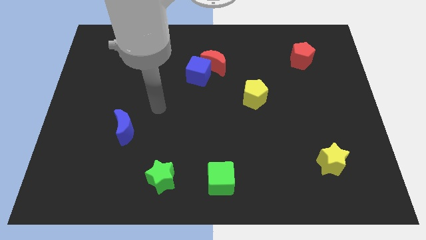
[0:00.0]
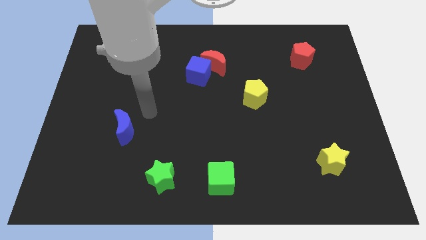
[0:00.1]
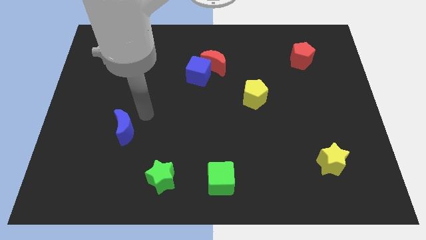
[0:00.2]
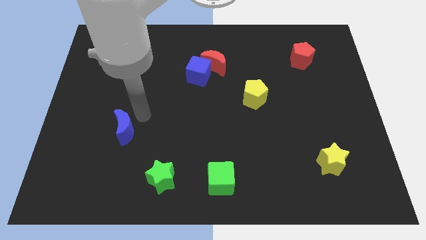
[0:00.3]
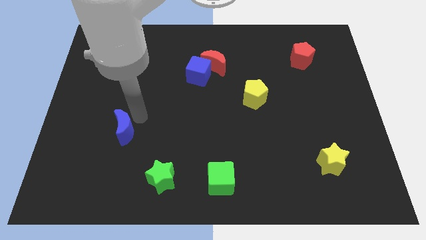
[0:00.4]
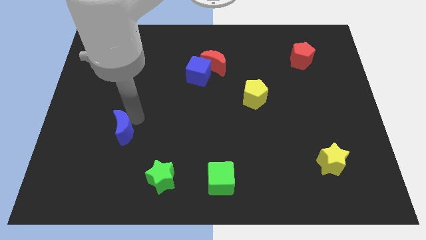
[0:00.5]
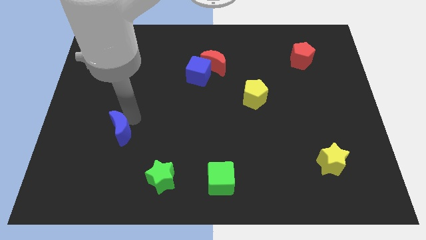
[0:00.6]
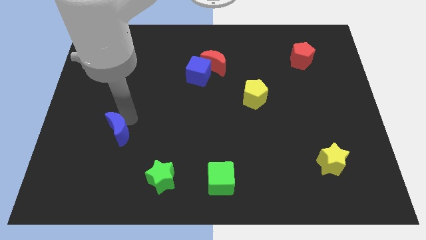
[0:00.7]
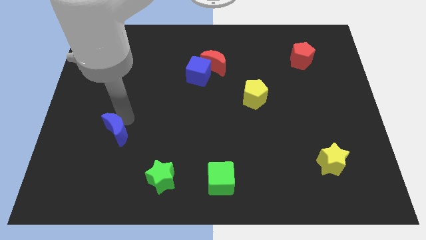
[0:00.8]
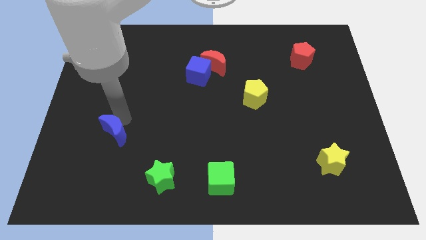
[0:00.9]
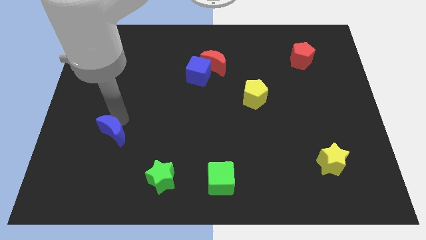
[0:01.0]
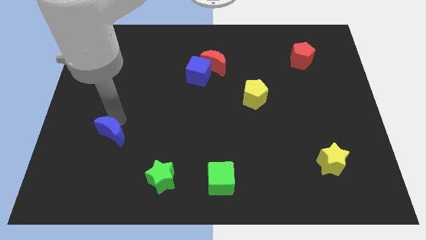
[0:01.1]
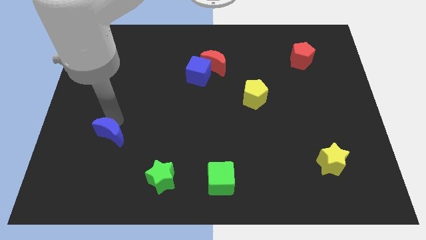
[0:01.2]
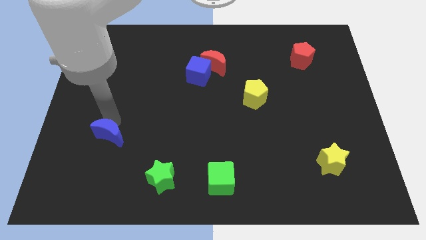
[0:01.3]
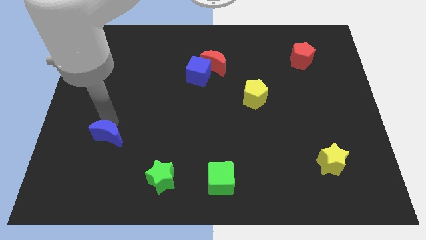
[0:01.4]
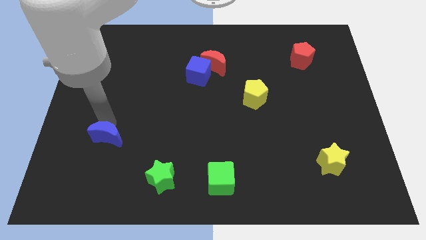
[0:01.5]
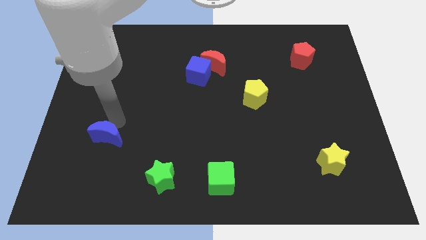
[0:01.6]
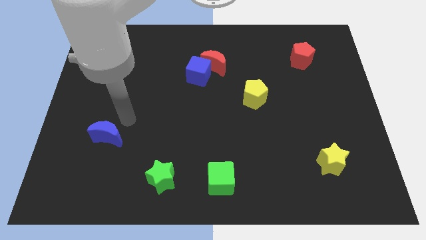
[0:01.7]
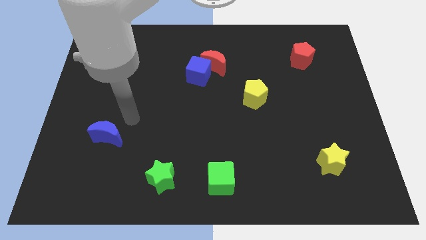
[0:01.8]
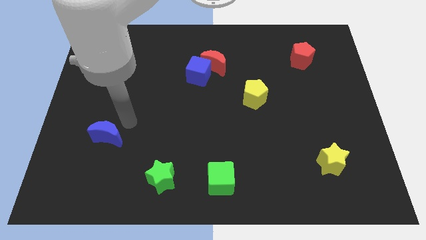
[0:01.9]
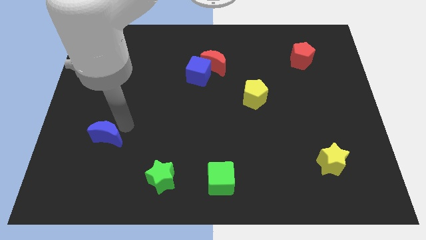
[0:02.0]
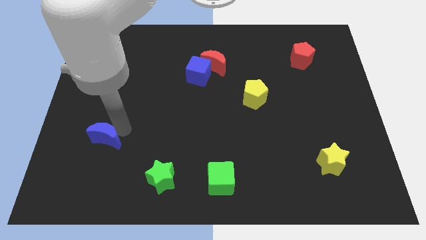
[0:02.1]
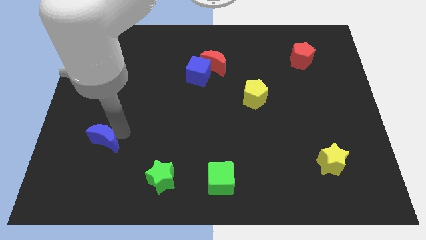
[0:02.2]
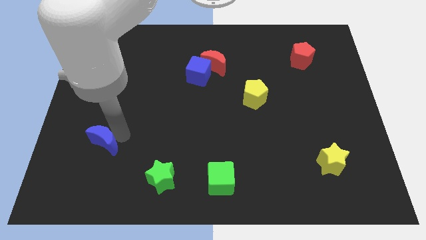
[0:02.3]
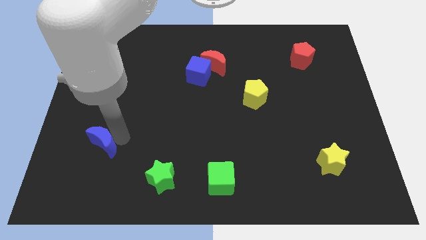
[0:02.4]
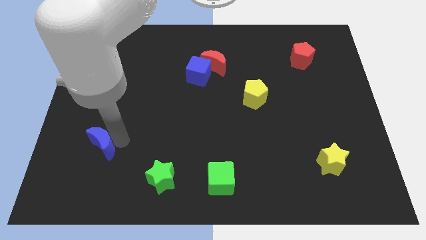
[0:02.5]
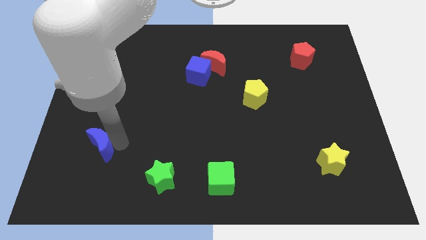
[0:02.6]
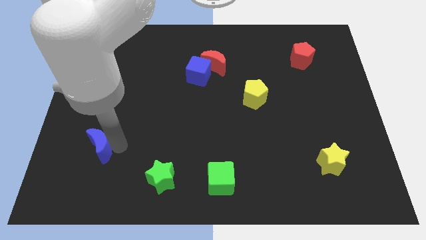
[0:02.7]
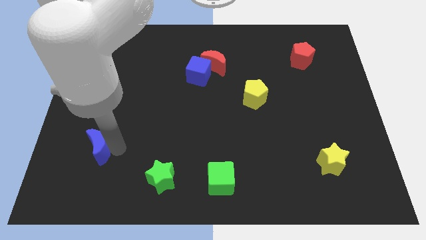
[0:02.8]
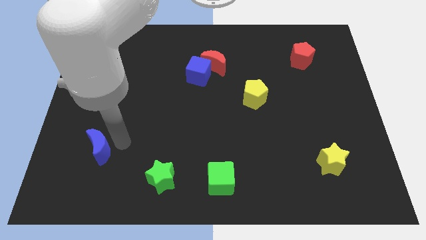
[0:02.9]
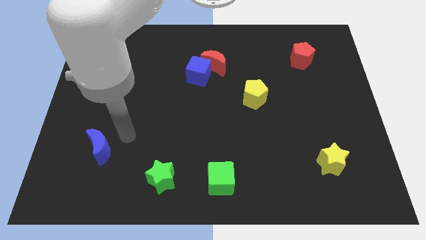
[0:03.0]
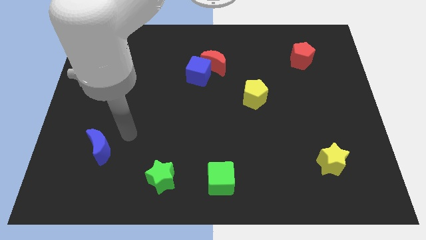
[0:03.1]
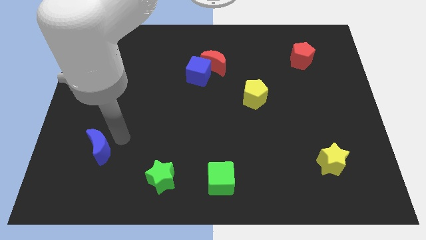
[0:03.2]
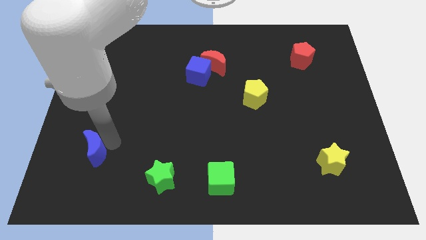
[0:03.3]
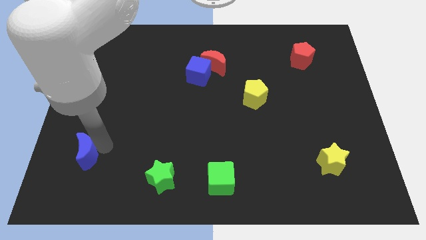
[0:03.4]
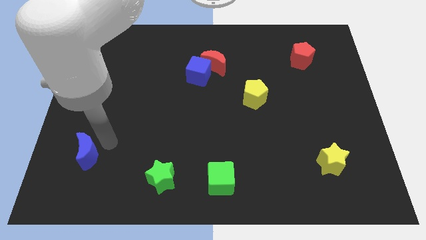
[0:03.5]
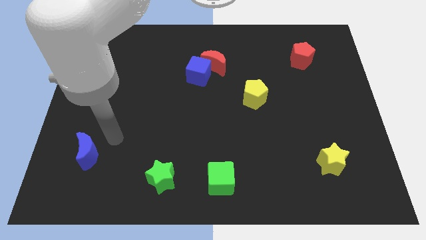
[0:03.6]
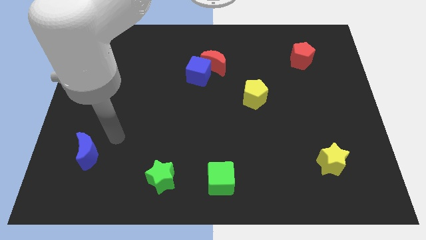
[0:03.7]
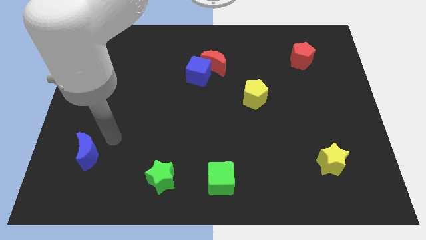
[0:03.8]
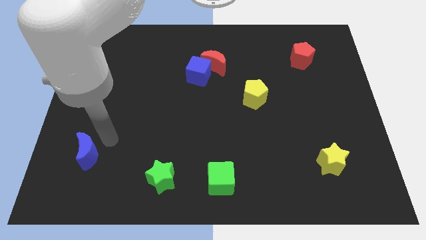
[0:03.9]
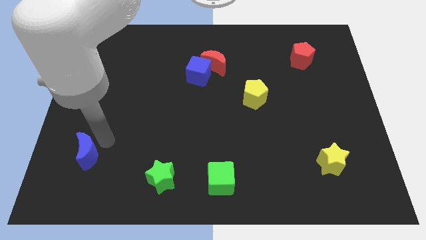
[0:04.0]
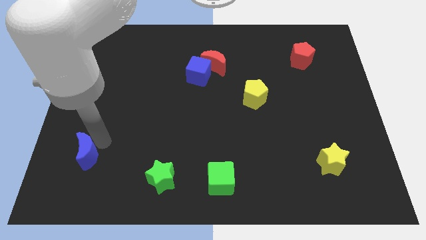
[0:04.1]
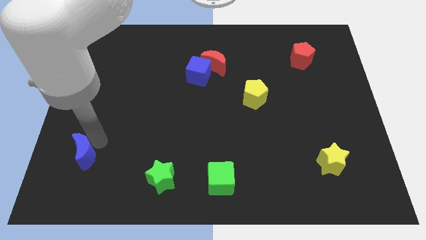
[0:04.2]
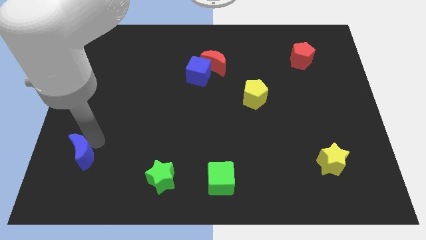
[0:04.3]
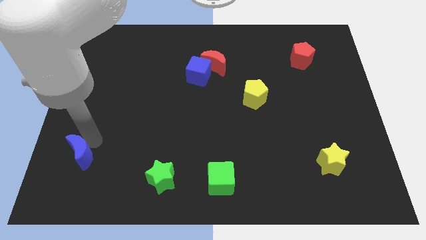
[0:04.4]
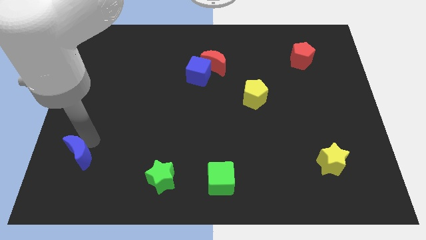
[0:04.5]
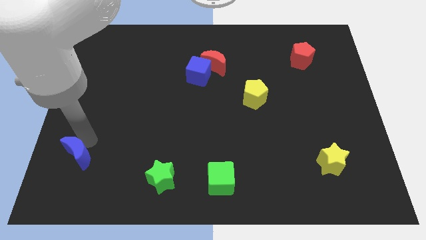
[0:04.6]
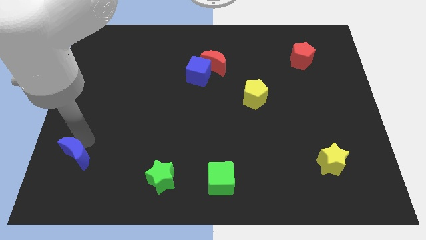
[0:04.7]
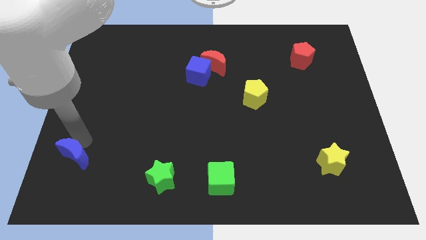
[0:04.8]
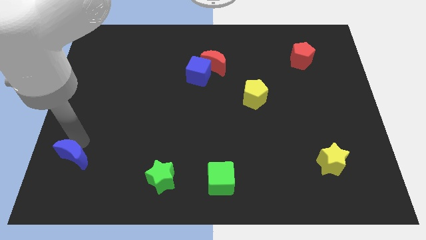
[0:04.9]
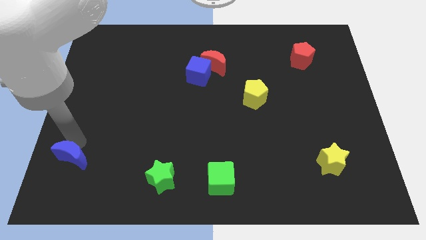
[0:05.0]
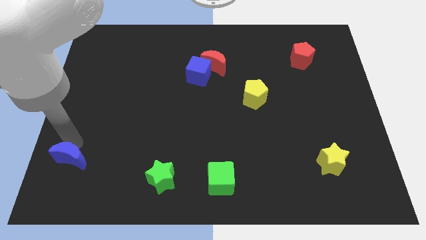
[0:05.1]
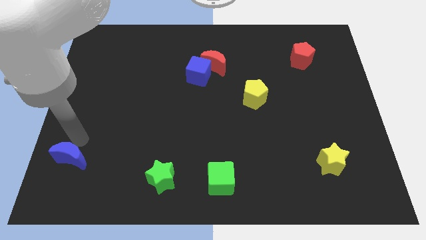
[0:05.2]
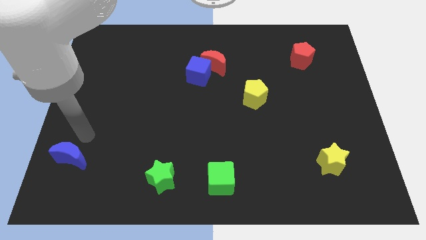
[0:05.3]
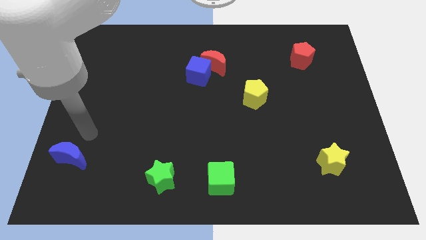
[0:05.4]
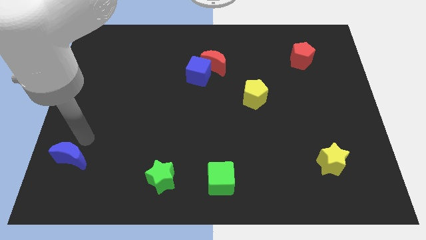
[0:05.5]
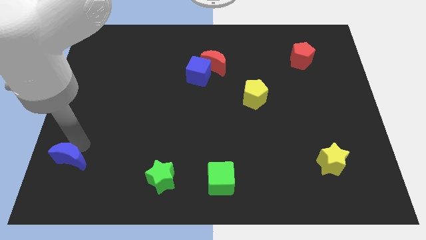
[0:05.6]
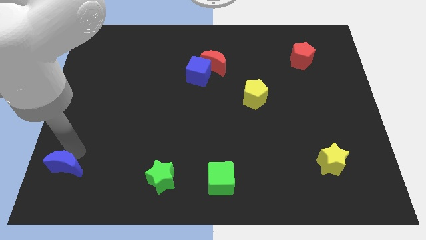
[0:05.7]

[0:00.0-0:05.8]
move the blue moon to the lower left corner
